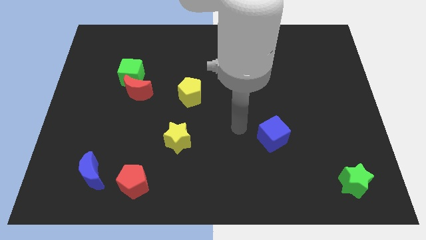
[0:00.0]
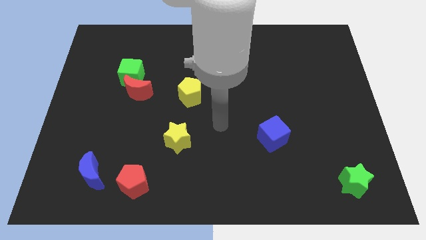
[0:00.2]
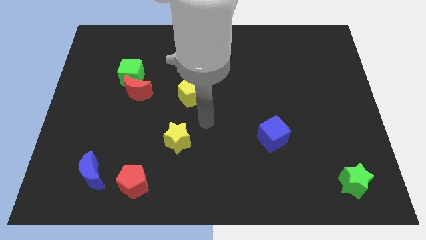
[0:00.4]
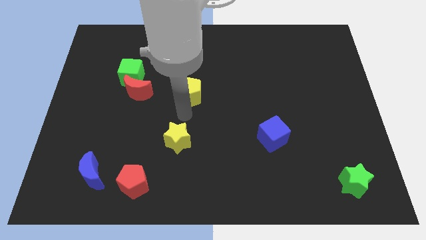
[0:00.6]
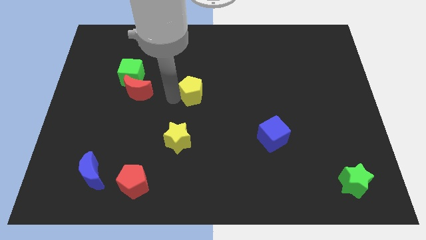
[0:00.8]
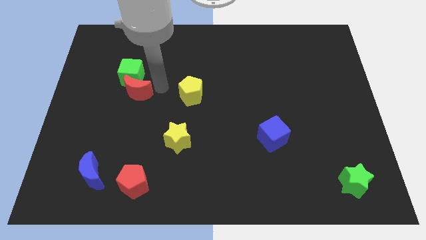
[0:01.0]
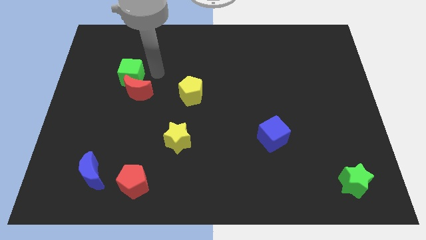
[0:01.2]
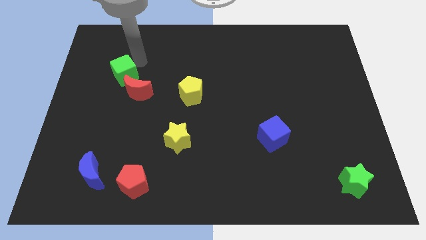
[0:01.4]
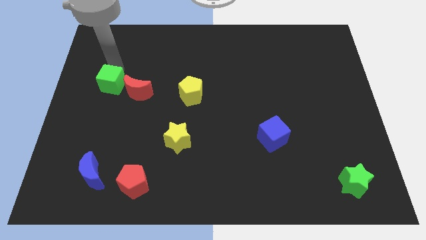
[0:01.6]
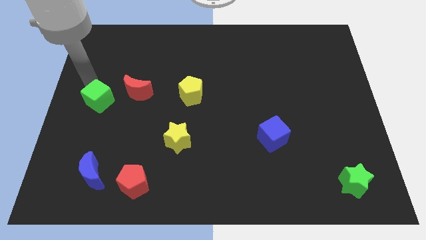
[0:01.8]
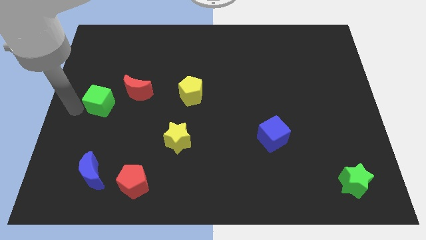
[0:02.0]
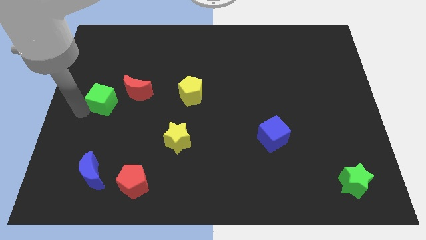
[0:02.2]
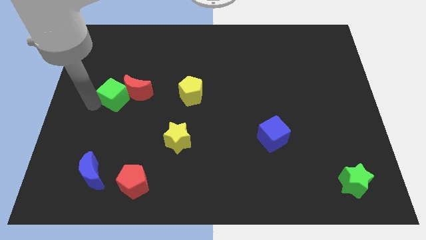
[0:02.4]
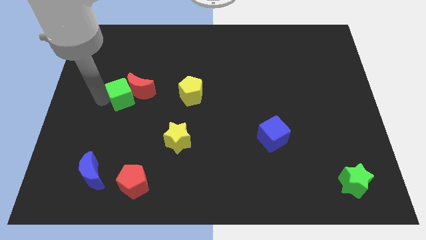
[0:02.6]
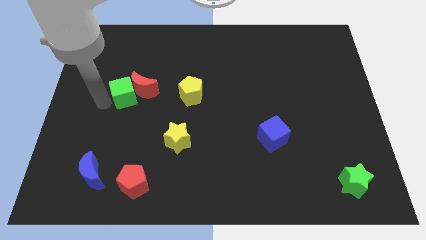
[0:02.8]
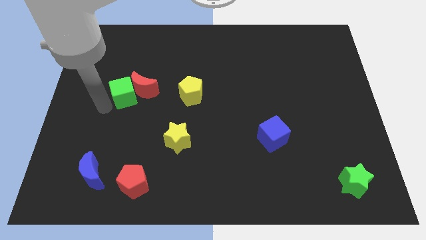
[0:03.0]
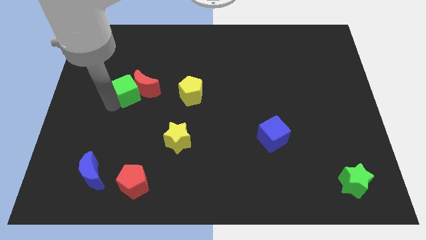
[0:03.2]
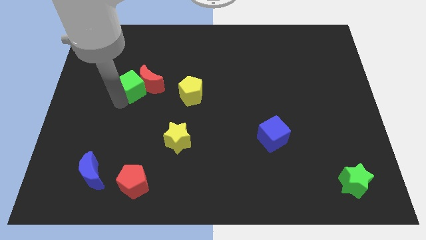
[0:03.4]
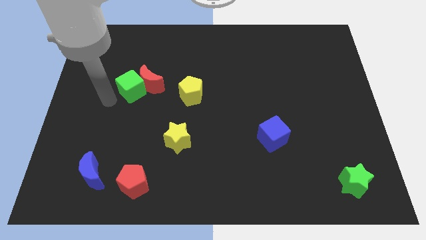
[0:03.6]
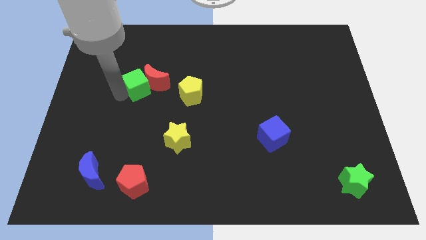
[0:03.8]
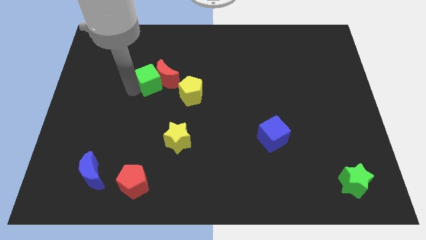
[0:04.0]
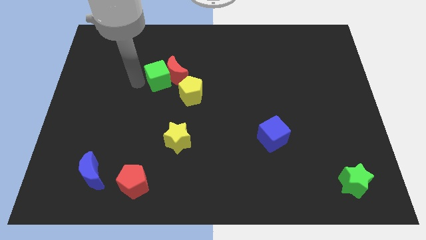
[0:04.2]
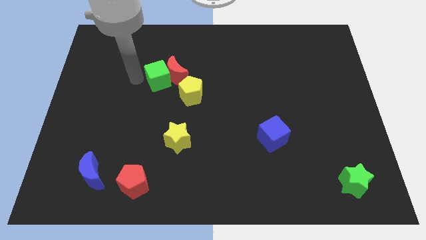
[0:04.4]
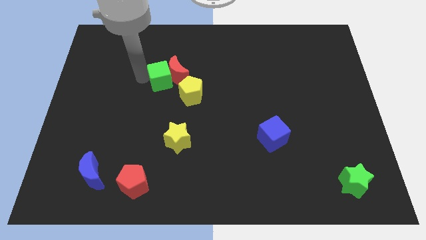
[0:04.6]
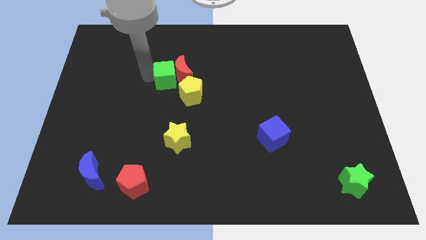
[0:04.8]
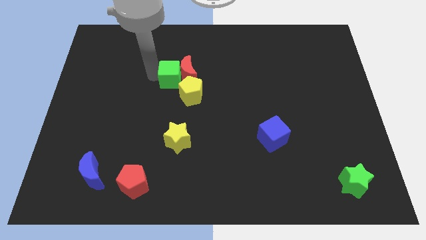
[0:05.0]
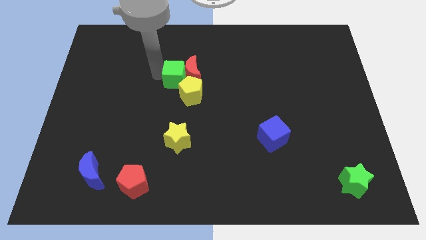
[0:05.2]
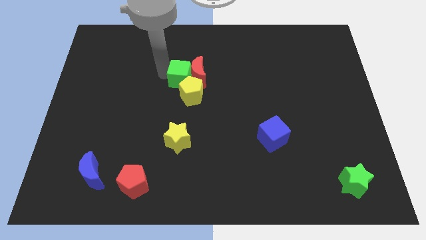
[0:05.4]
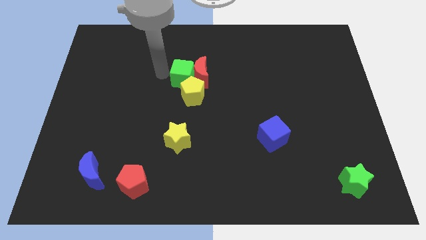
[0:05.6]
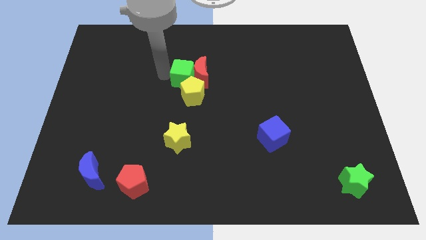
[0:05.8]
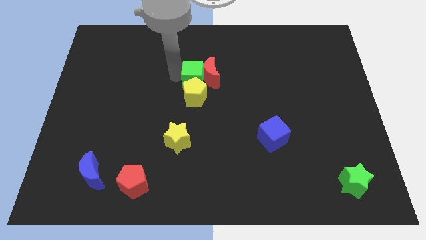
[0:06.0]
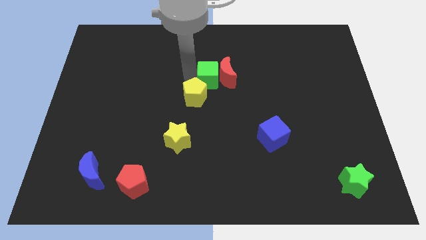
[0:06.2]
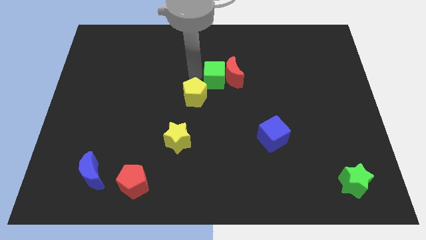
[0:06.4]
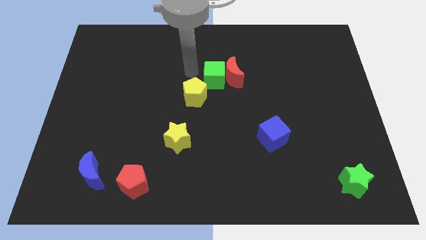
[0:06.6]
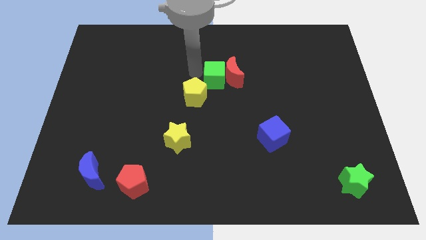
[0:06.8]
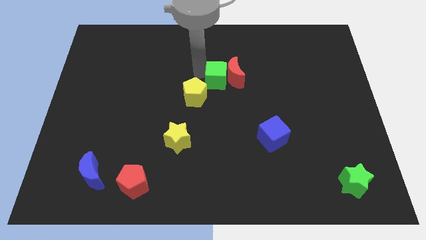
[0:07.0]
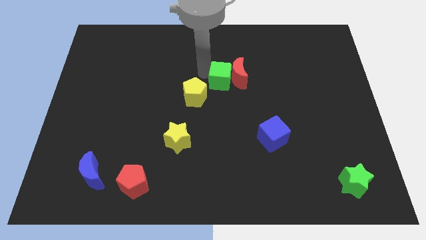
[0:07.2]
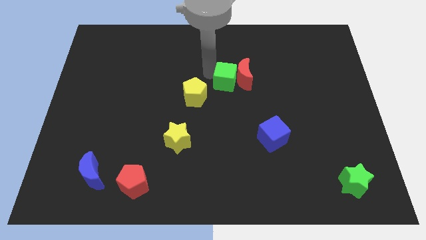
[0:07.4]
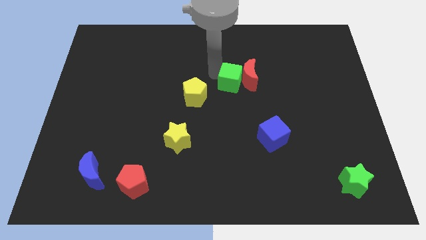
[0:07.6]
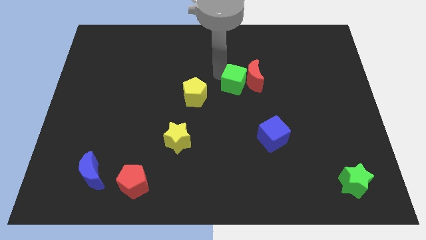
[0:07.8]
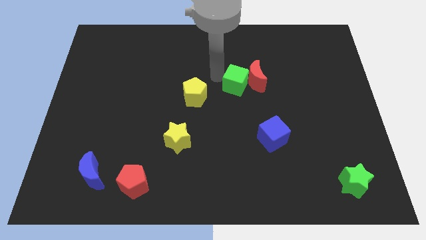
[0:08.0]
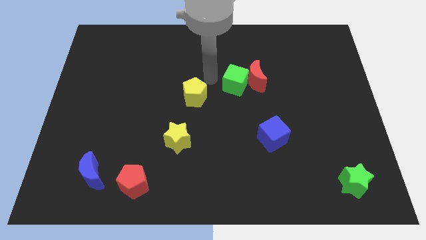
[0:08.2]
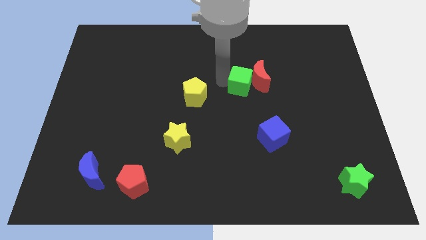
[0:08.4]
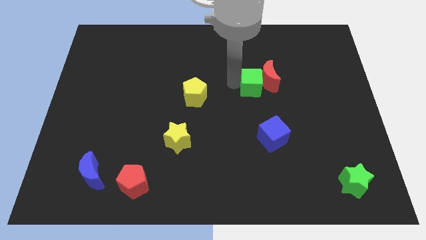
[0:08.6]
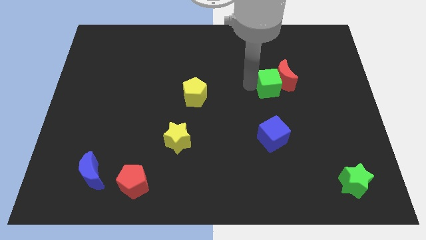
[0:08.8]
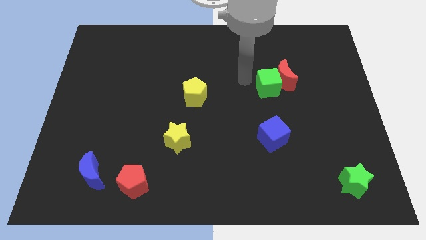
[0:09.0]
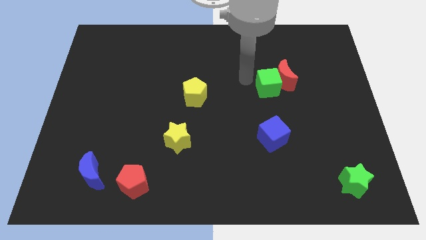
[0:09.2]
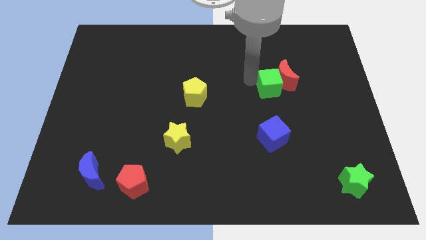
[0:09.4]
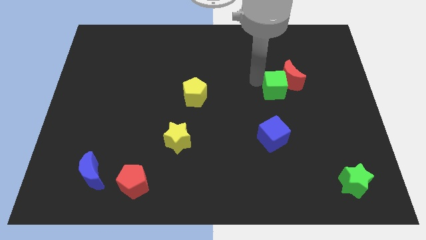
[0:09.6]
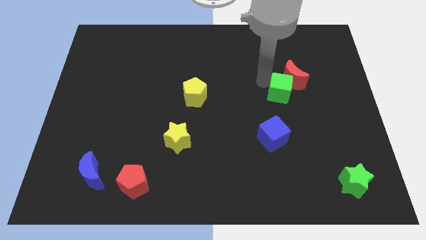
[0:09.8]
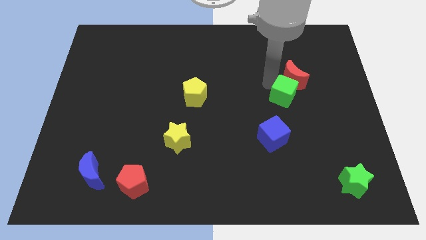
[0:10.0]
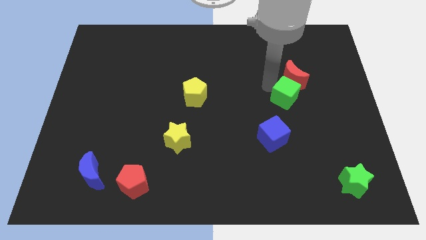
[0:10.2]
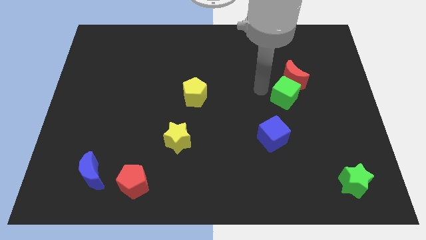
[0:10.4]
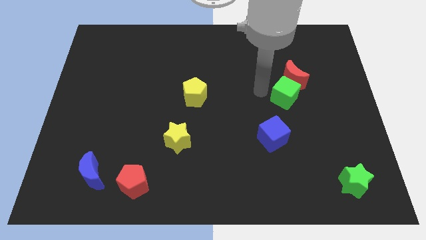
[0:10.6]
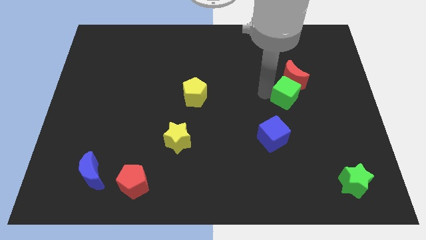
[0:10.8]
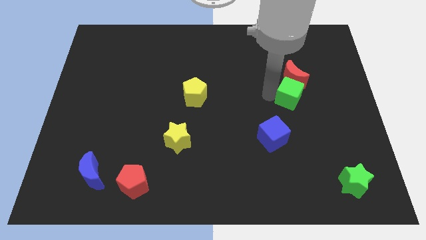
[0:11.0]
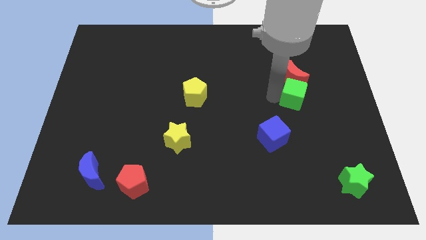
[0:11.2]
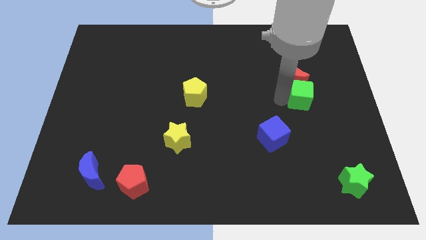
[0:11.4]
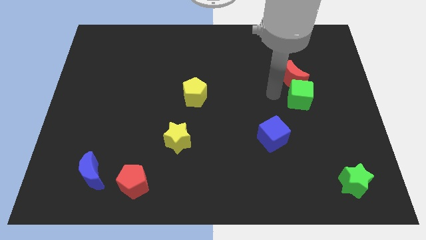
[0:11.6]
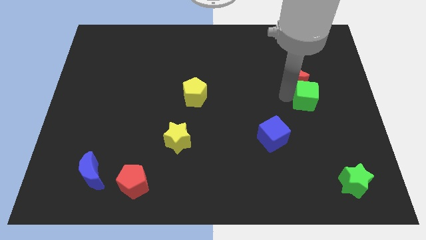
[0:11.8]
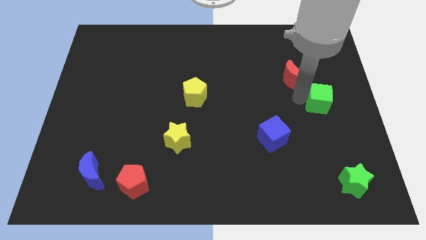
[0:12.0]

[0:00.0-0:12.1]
push the green cube to the center right

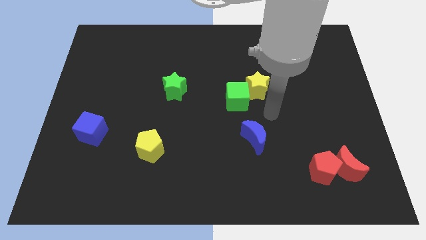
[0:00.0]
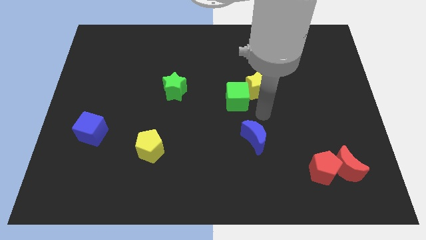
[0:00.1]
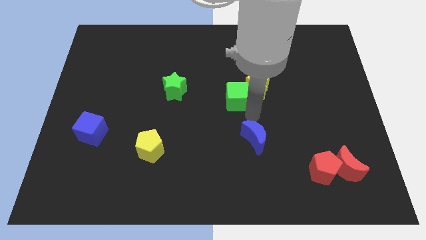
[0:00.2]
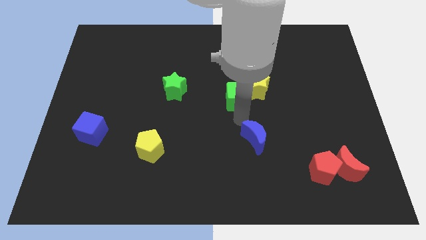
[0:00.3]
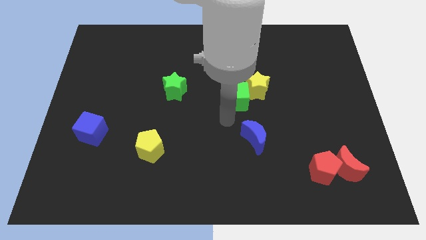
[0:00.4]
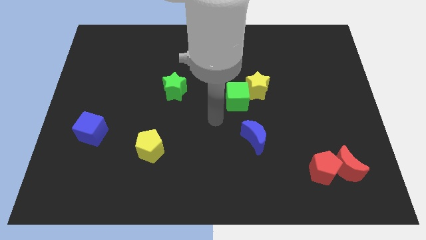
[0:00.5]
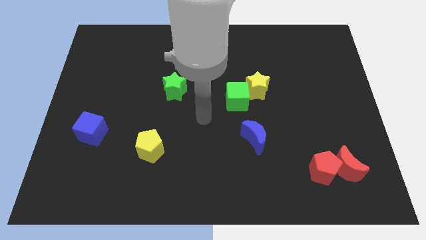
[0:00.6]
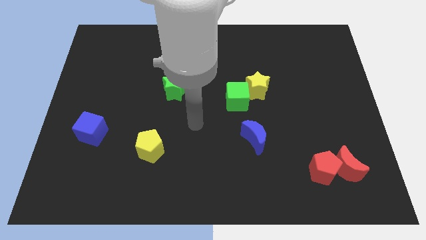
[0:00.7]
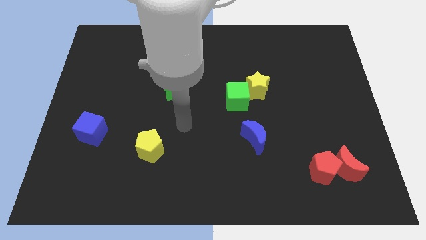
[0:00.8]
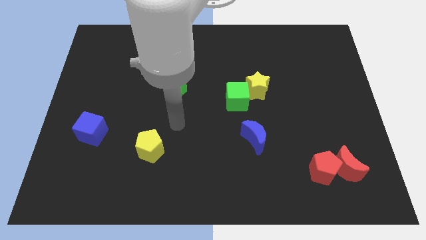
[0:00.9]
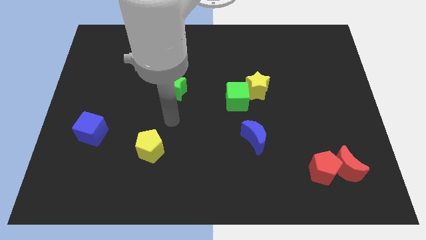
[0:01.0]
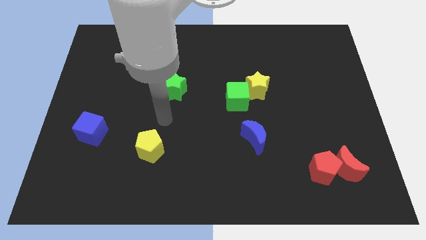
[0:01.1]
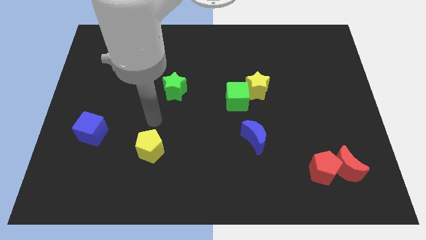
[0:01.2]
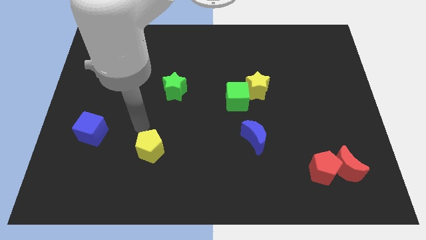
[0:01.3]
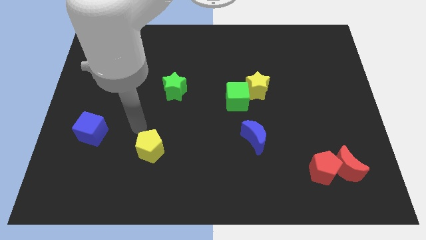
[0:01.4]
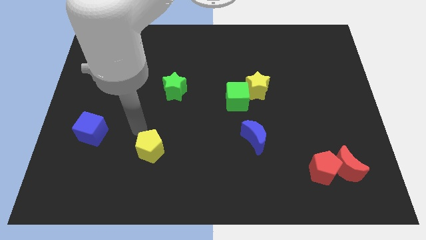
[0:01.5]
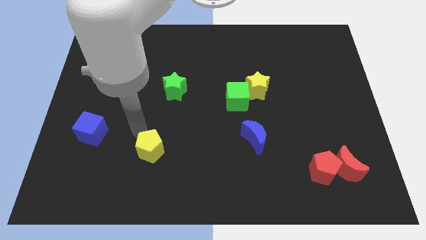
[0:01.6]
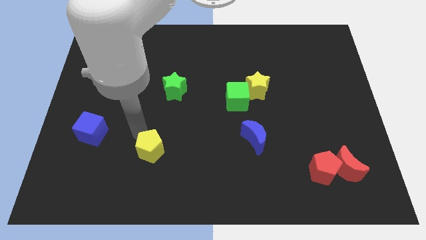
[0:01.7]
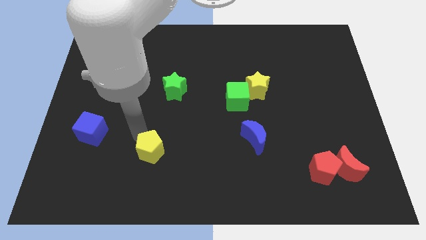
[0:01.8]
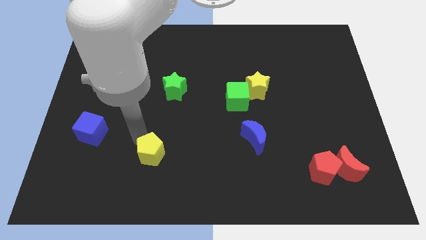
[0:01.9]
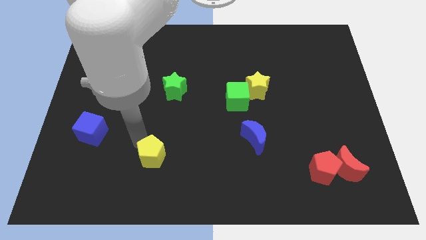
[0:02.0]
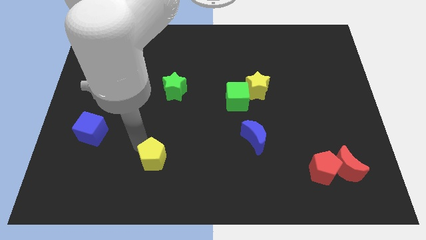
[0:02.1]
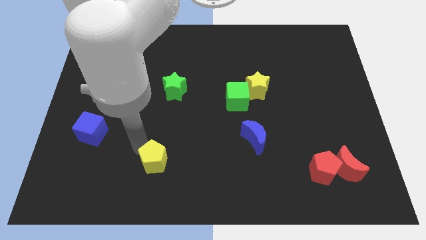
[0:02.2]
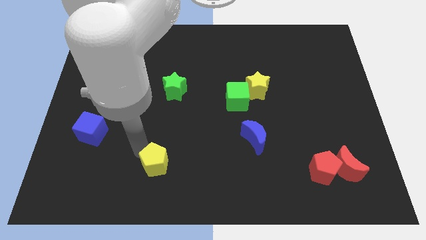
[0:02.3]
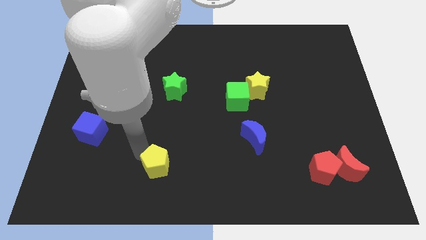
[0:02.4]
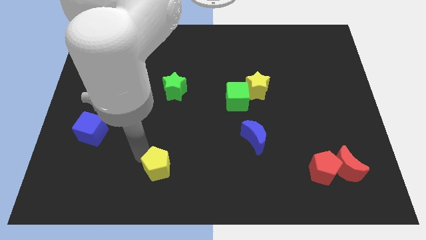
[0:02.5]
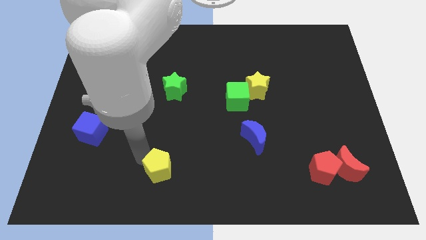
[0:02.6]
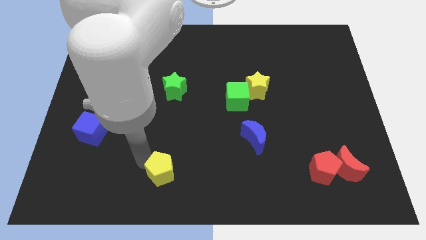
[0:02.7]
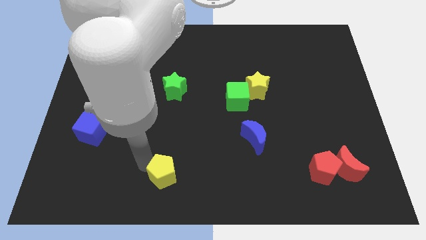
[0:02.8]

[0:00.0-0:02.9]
put the yellow pentagon to the bottom side
